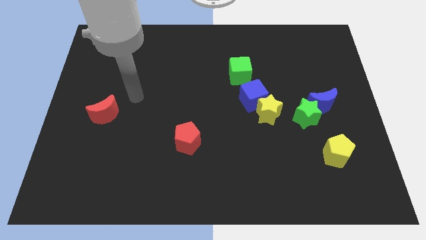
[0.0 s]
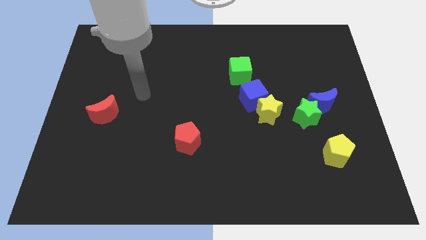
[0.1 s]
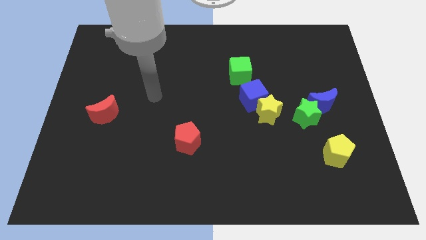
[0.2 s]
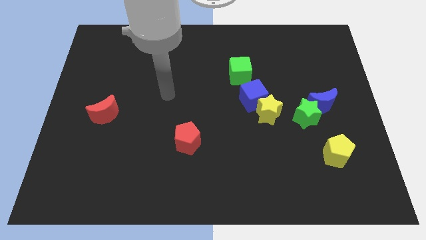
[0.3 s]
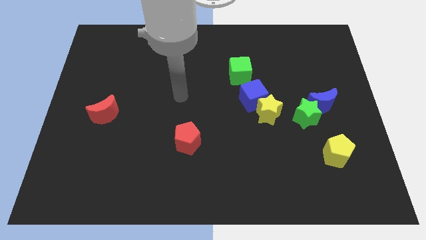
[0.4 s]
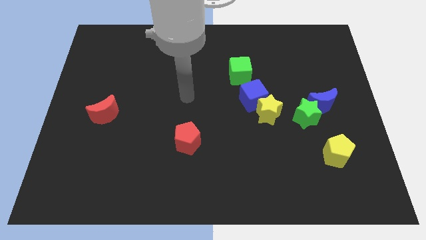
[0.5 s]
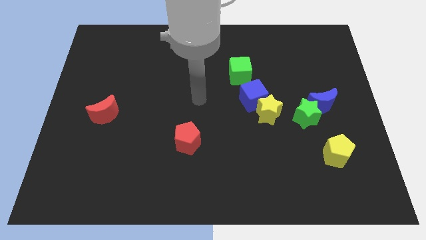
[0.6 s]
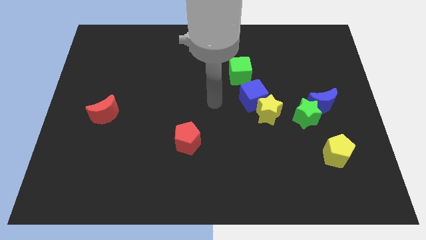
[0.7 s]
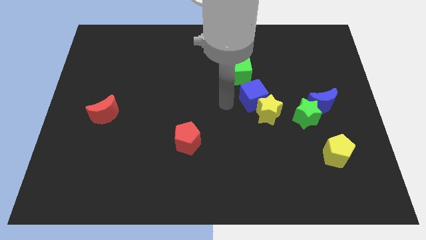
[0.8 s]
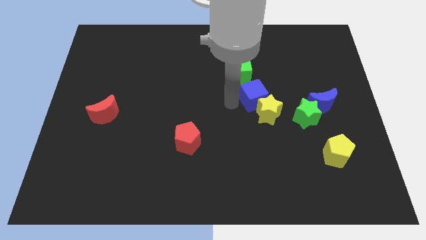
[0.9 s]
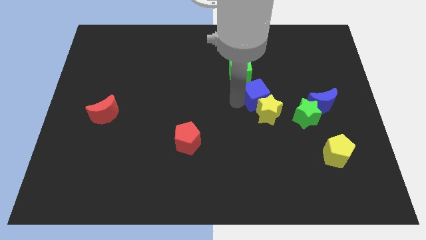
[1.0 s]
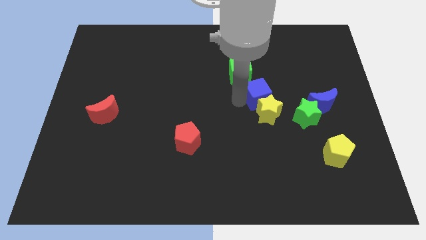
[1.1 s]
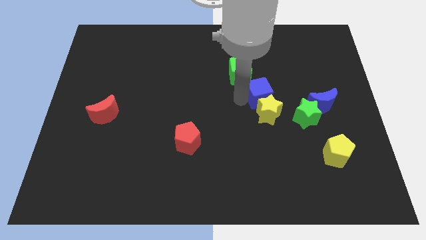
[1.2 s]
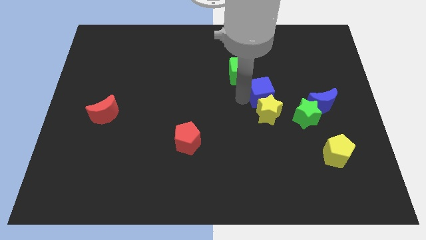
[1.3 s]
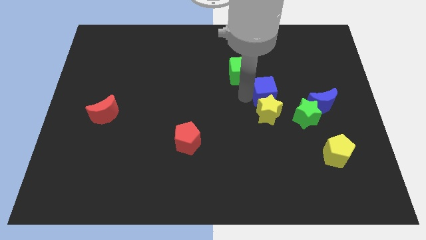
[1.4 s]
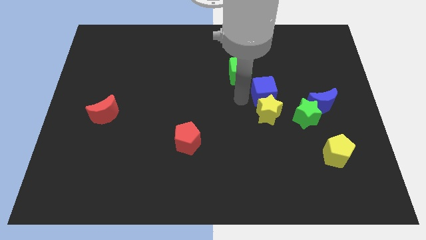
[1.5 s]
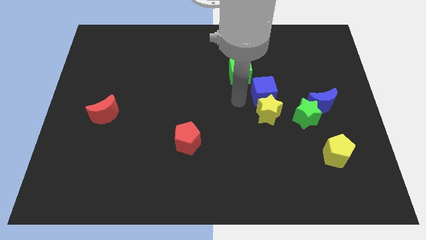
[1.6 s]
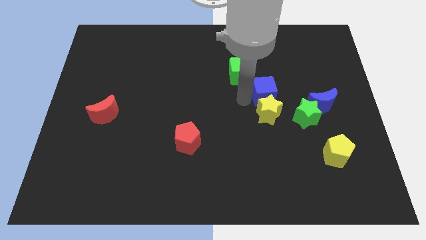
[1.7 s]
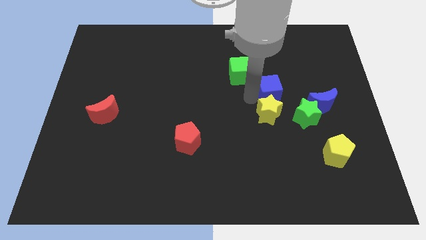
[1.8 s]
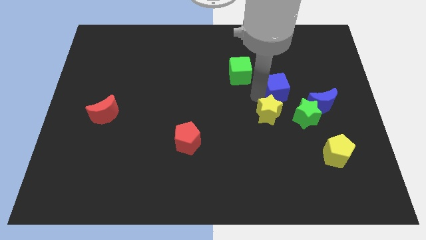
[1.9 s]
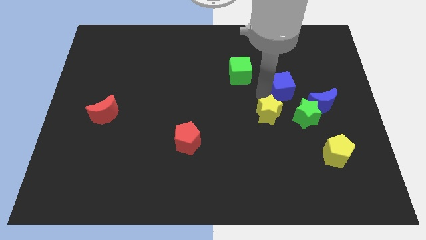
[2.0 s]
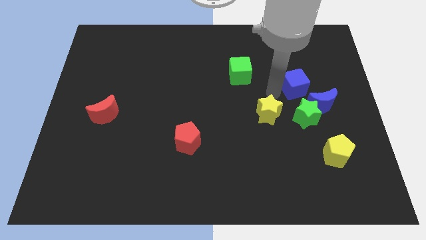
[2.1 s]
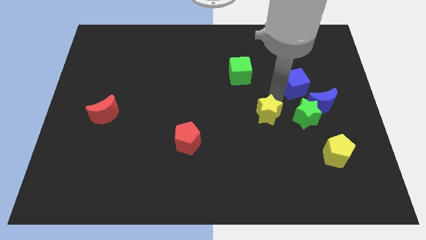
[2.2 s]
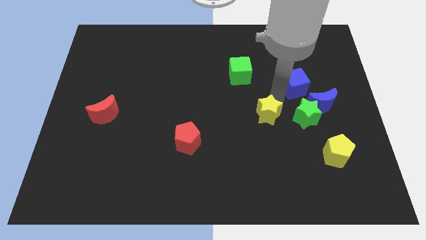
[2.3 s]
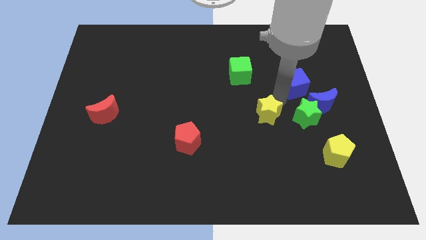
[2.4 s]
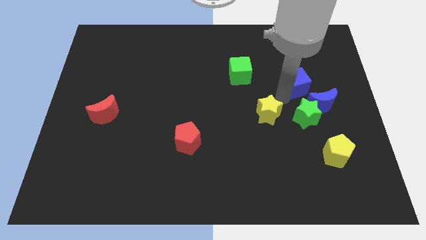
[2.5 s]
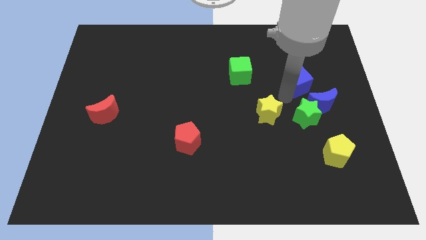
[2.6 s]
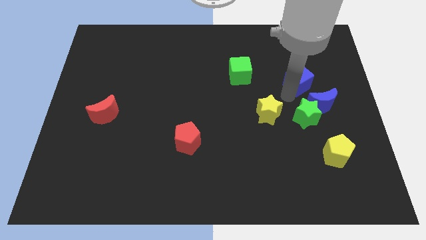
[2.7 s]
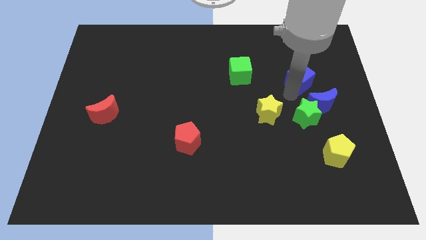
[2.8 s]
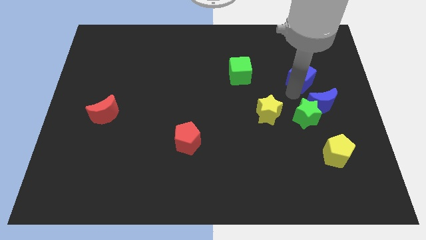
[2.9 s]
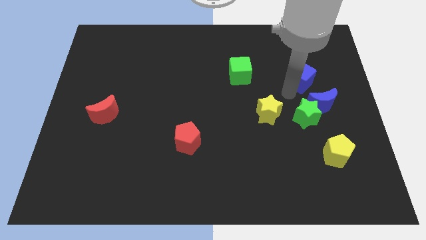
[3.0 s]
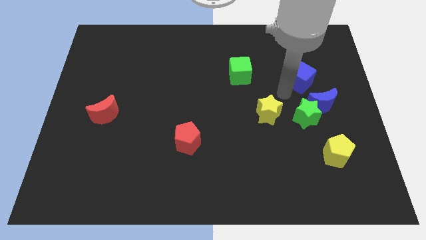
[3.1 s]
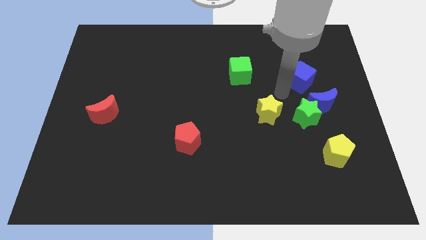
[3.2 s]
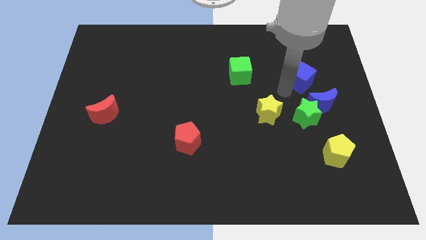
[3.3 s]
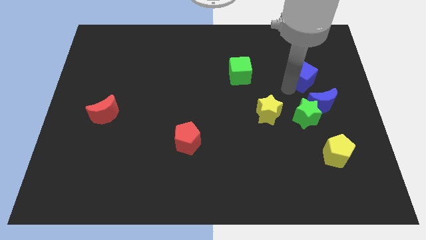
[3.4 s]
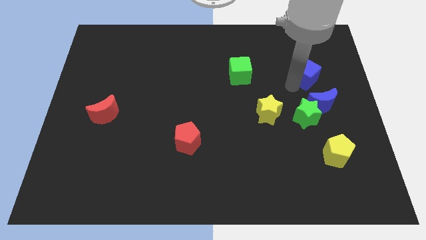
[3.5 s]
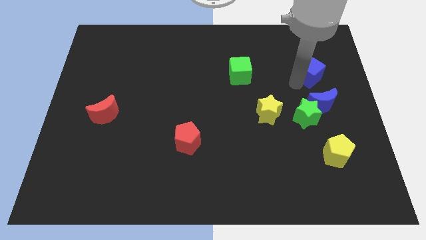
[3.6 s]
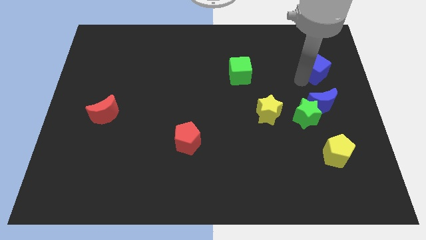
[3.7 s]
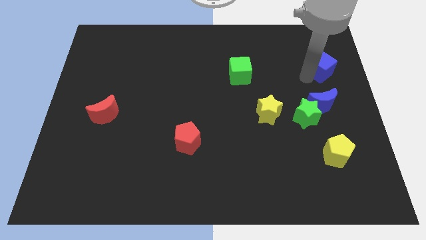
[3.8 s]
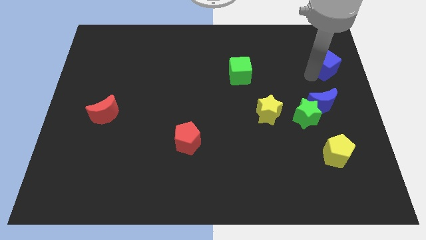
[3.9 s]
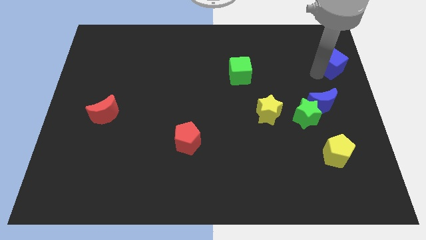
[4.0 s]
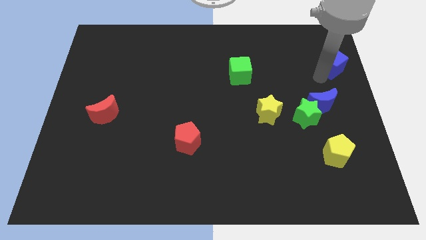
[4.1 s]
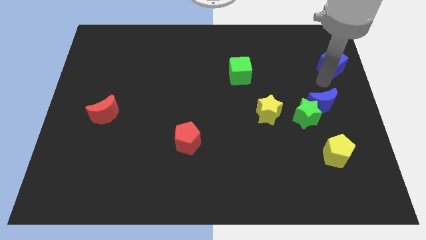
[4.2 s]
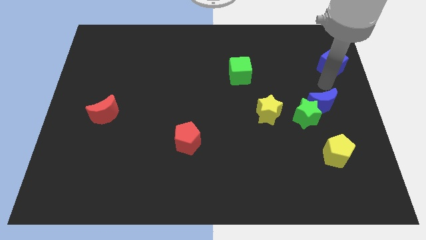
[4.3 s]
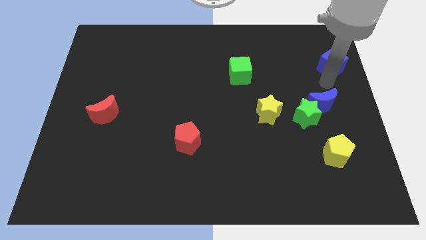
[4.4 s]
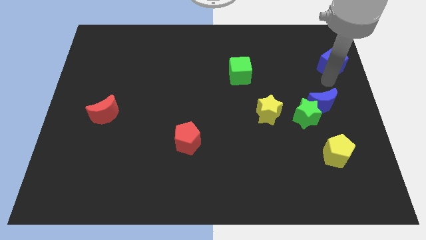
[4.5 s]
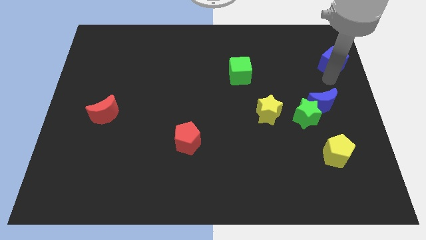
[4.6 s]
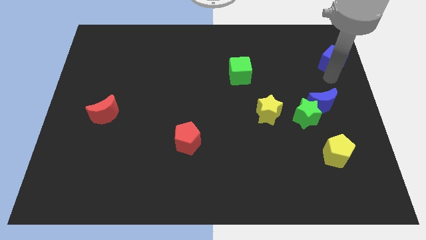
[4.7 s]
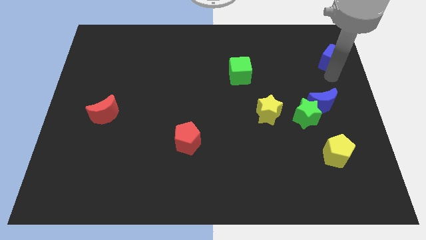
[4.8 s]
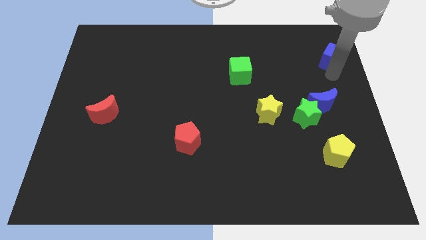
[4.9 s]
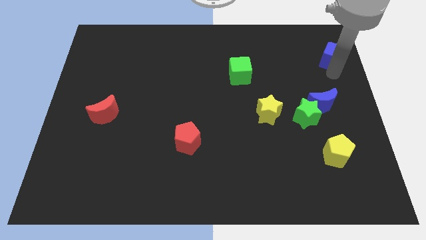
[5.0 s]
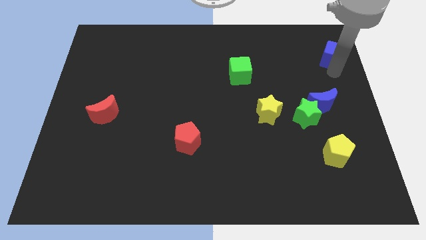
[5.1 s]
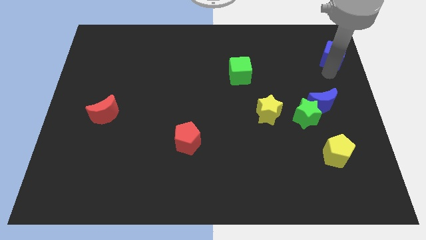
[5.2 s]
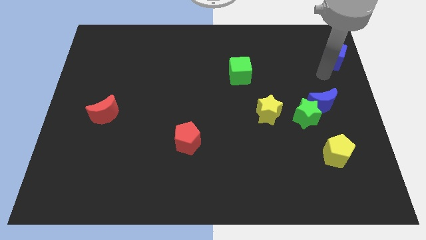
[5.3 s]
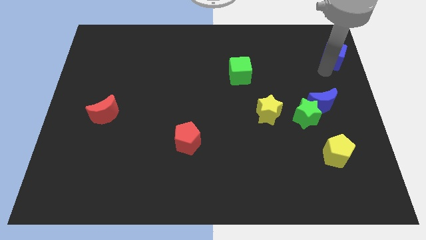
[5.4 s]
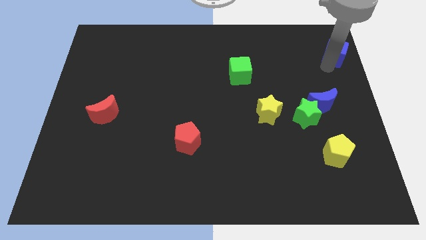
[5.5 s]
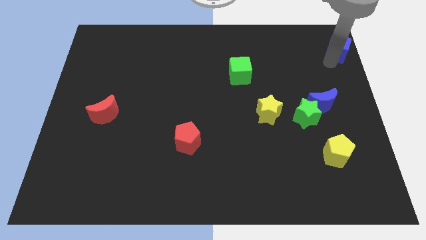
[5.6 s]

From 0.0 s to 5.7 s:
slide the blue cube to the top right corner

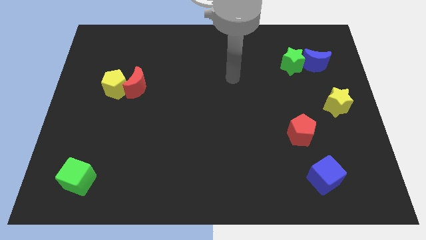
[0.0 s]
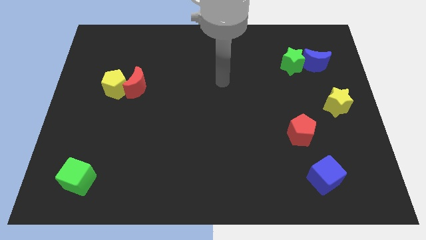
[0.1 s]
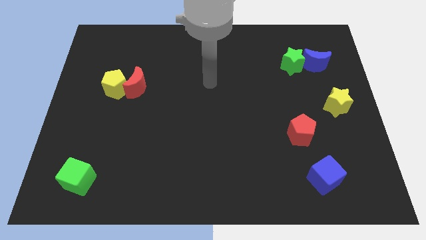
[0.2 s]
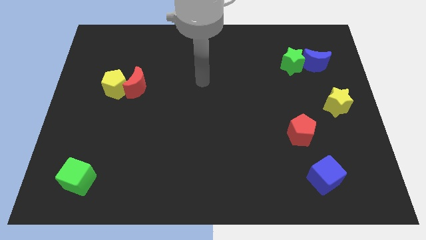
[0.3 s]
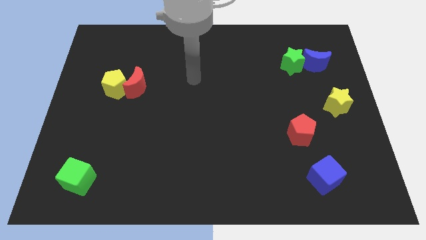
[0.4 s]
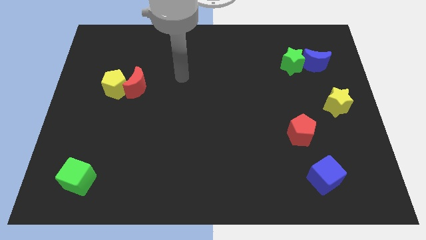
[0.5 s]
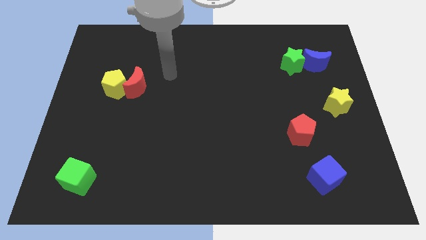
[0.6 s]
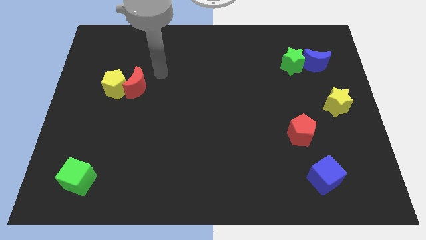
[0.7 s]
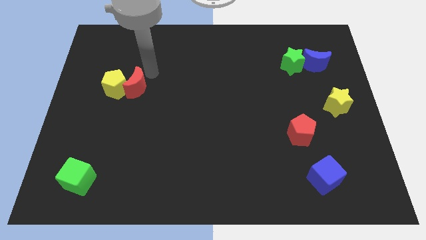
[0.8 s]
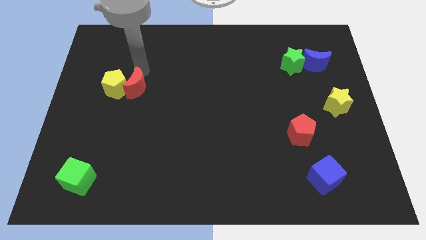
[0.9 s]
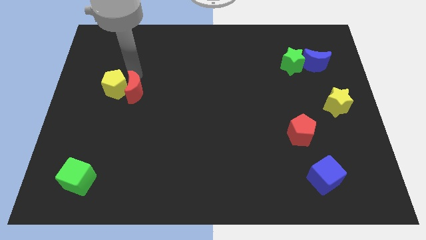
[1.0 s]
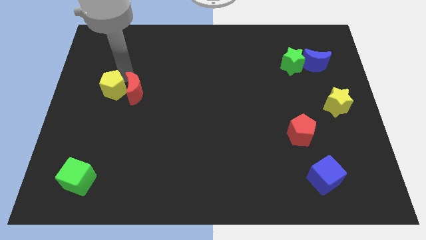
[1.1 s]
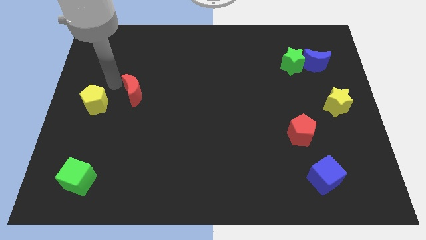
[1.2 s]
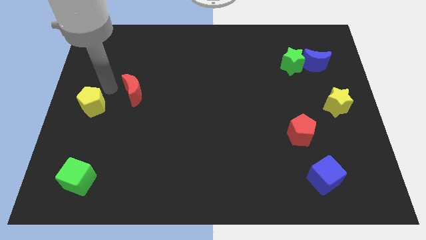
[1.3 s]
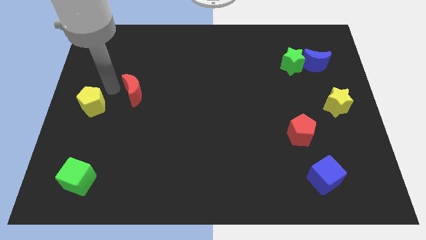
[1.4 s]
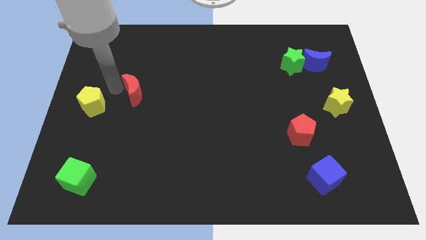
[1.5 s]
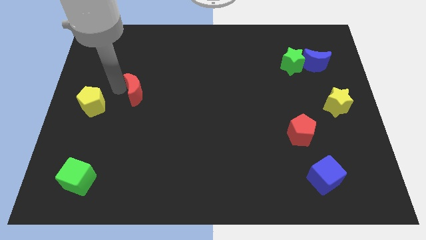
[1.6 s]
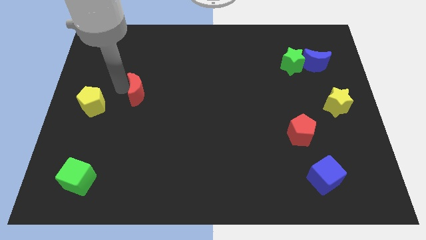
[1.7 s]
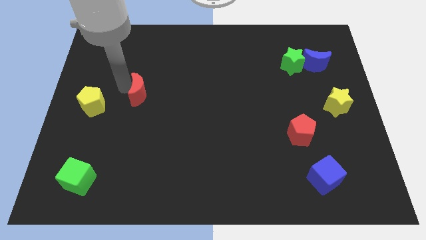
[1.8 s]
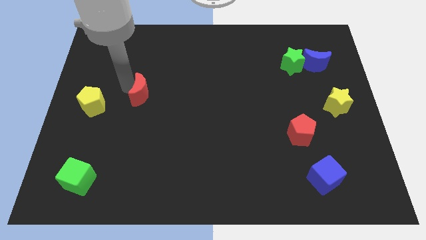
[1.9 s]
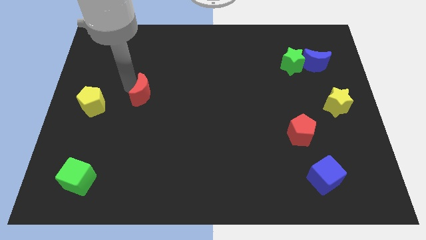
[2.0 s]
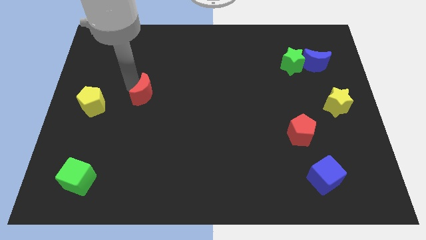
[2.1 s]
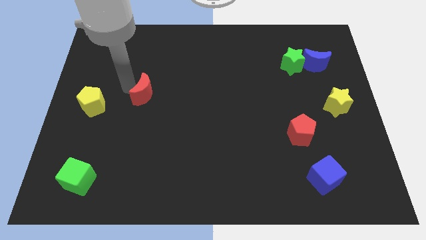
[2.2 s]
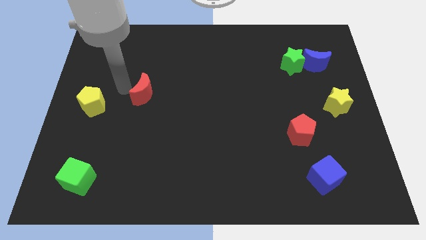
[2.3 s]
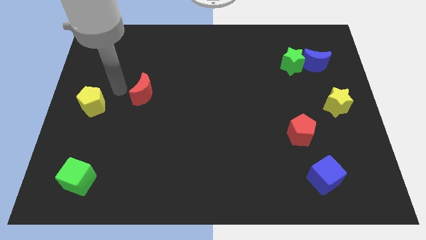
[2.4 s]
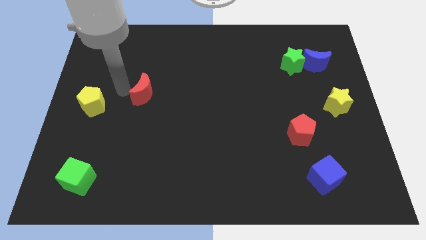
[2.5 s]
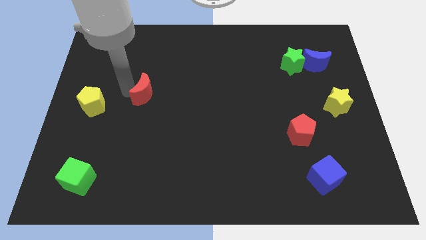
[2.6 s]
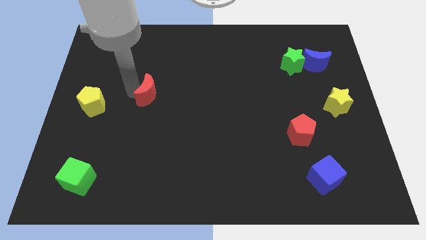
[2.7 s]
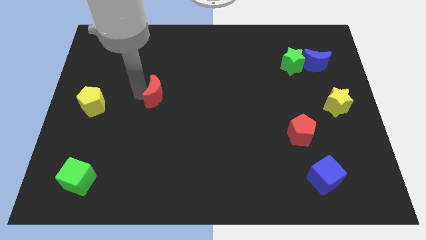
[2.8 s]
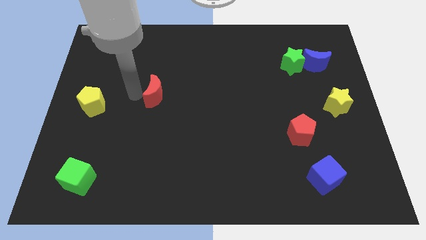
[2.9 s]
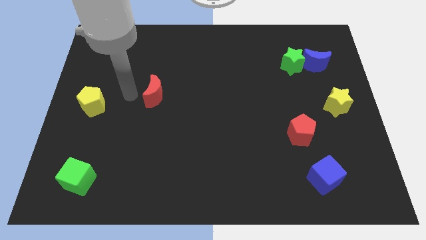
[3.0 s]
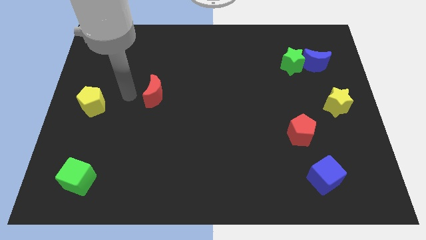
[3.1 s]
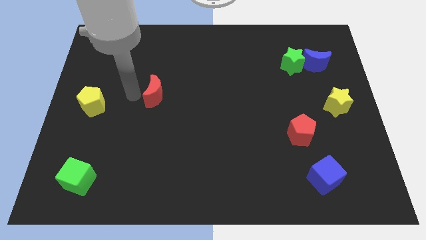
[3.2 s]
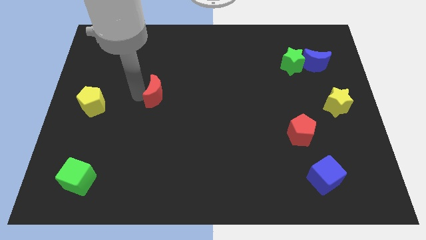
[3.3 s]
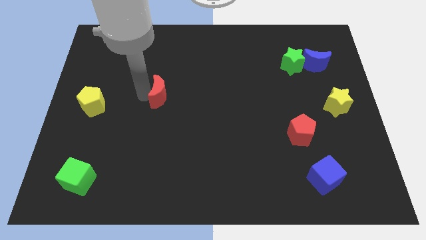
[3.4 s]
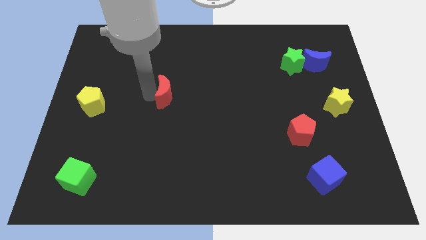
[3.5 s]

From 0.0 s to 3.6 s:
put the red moon to the center of the board
